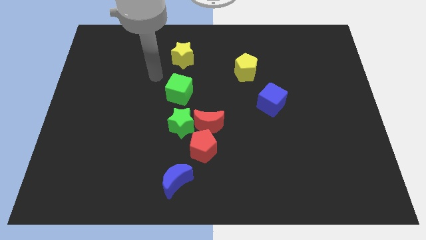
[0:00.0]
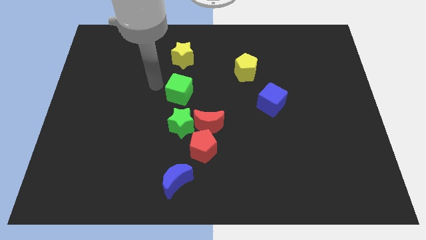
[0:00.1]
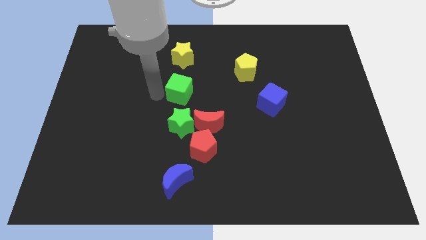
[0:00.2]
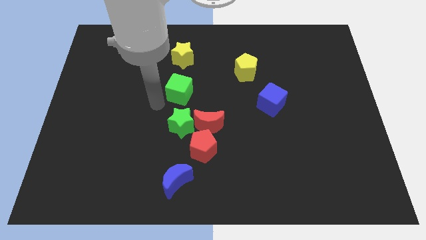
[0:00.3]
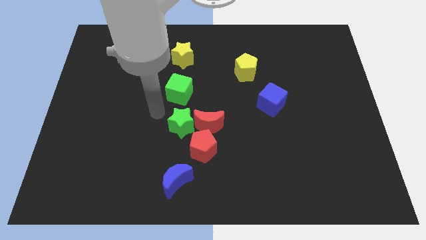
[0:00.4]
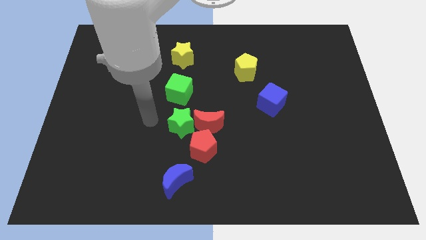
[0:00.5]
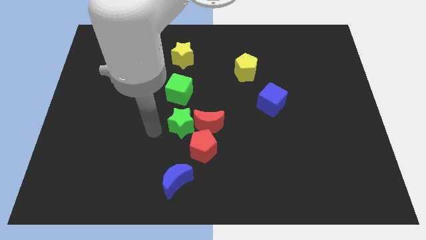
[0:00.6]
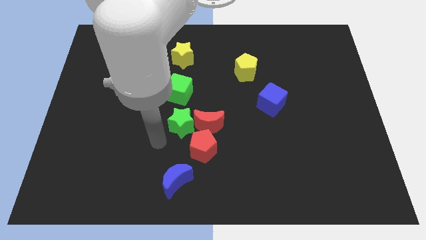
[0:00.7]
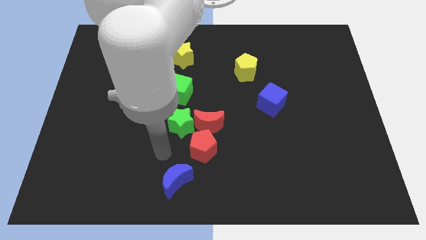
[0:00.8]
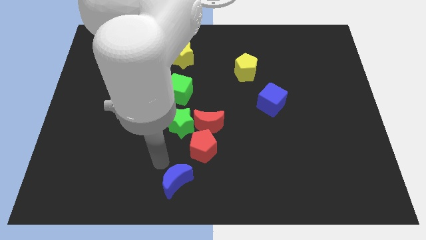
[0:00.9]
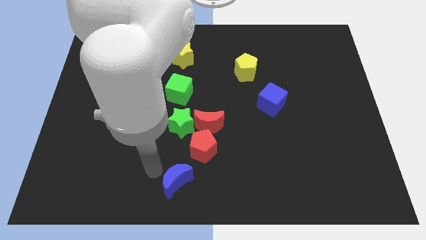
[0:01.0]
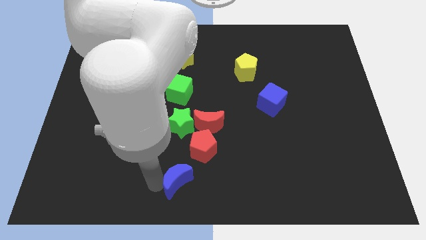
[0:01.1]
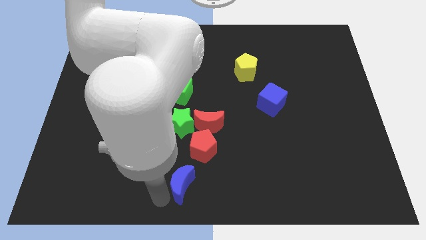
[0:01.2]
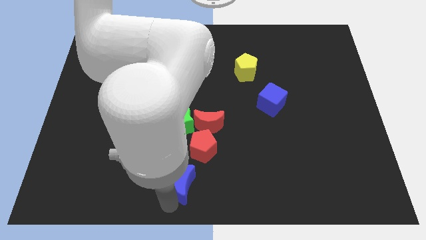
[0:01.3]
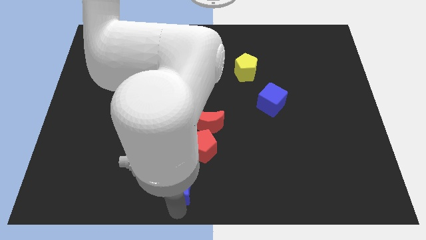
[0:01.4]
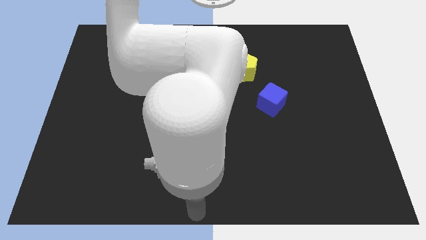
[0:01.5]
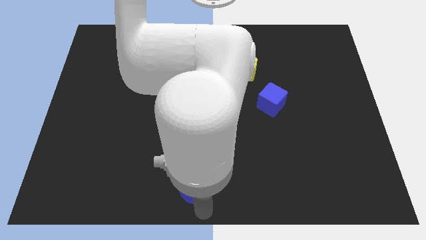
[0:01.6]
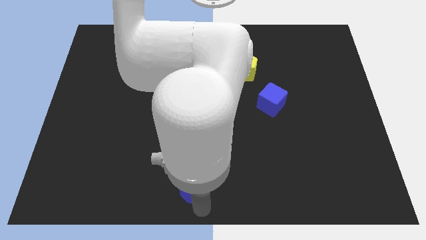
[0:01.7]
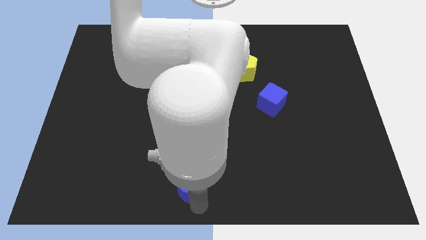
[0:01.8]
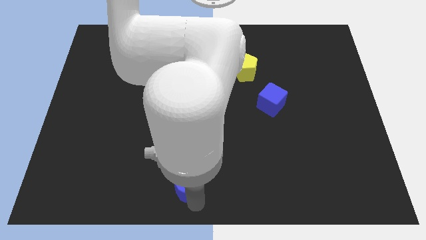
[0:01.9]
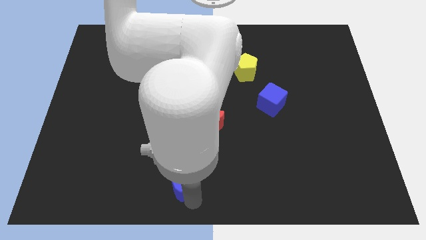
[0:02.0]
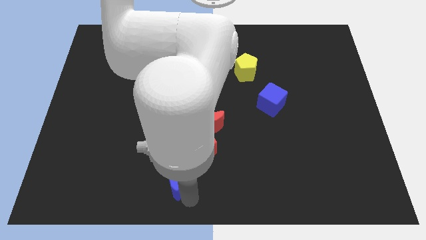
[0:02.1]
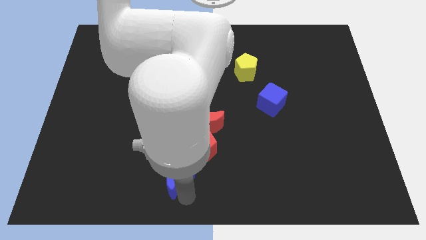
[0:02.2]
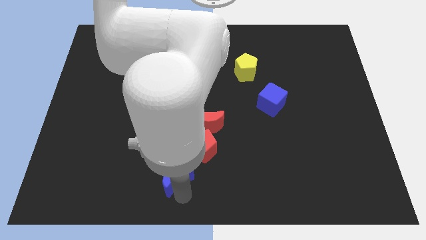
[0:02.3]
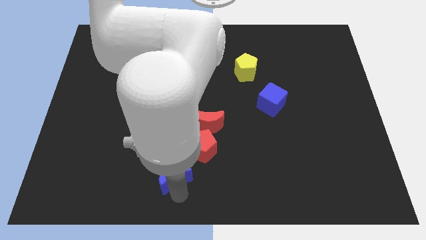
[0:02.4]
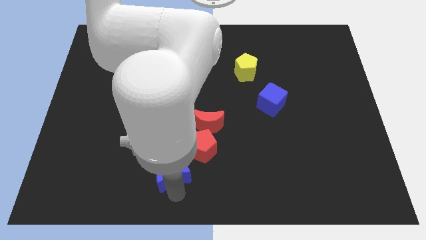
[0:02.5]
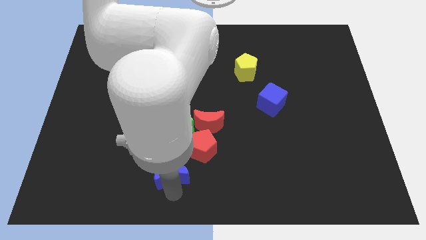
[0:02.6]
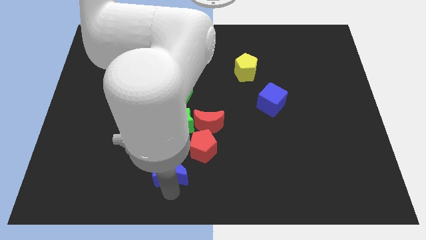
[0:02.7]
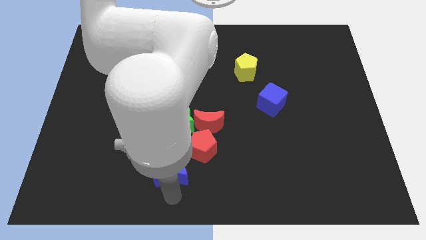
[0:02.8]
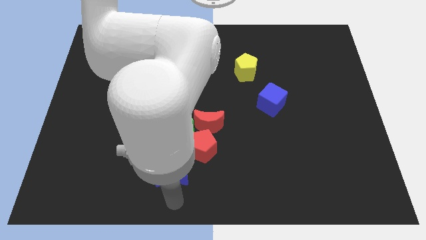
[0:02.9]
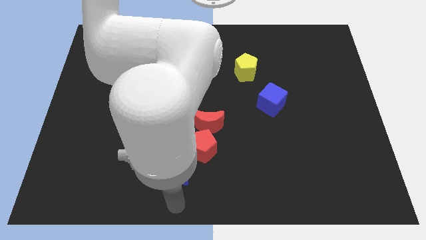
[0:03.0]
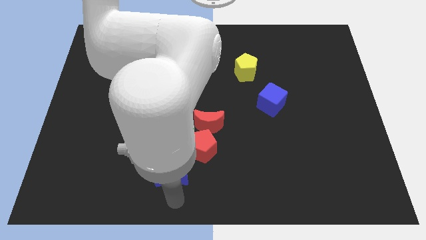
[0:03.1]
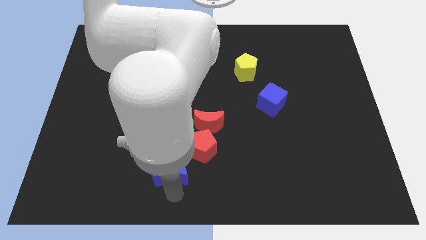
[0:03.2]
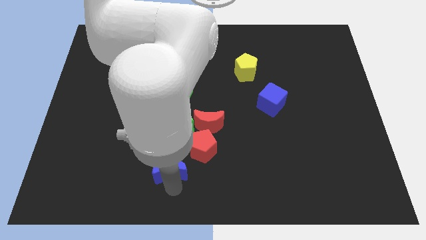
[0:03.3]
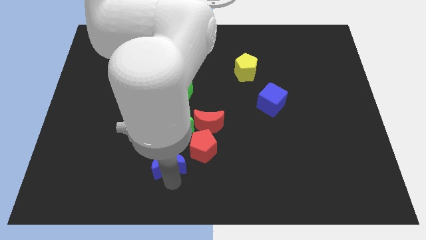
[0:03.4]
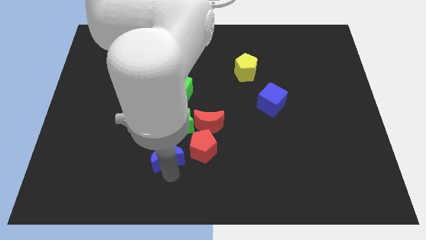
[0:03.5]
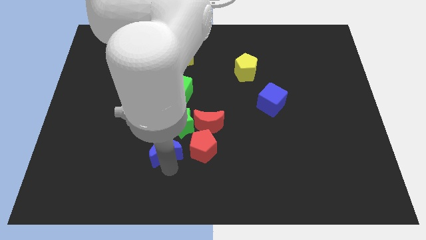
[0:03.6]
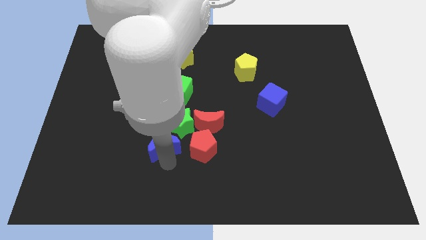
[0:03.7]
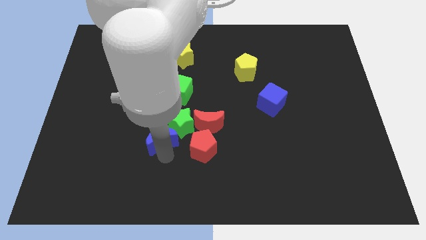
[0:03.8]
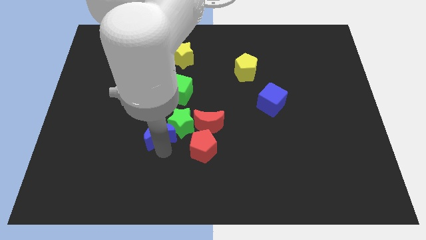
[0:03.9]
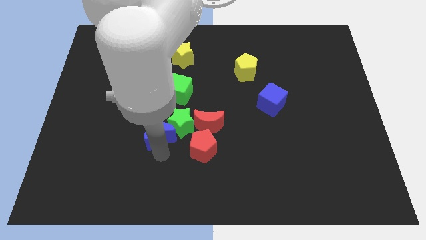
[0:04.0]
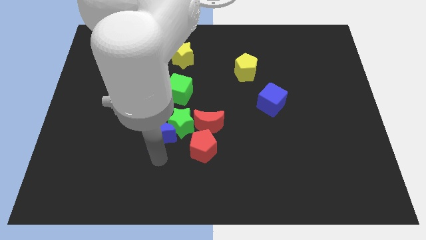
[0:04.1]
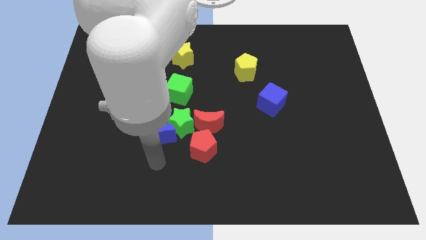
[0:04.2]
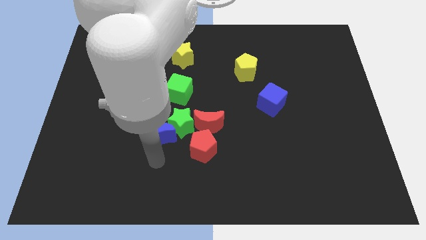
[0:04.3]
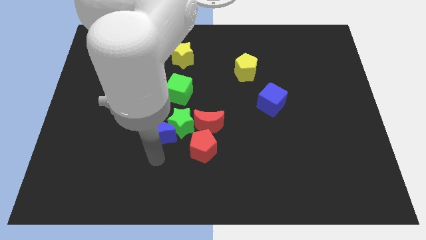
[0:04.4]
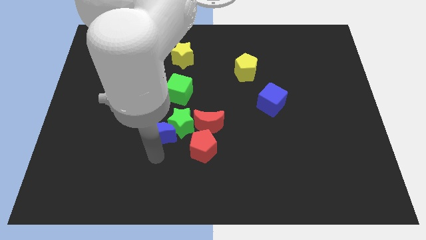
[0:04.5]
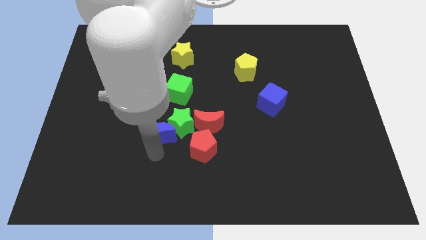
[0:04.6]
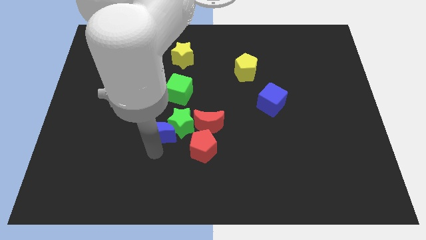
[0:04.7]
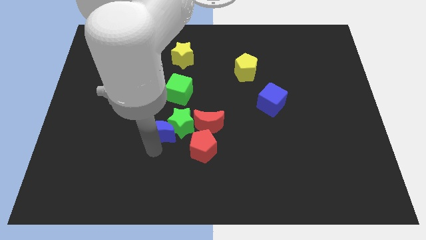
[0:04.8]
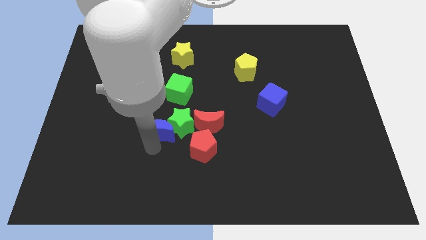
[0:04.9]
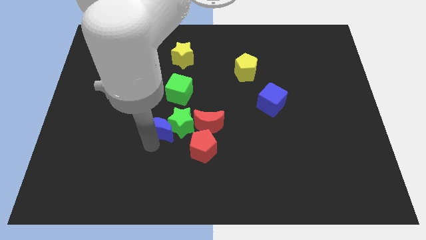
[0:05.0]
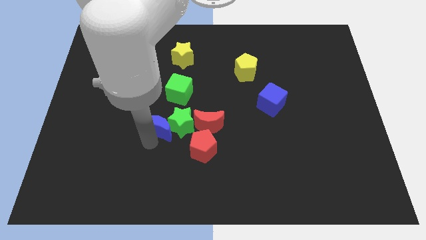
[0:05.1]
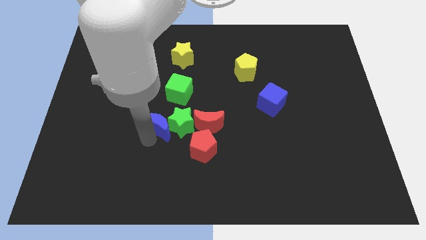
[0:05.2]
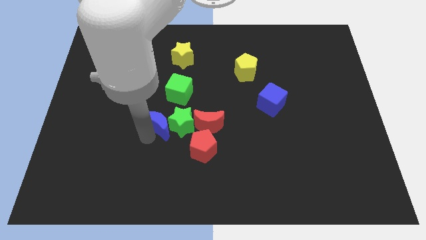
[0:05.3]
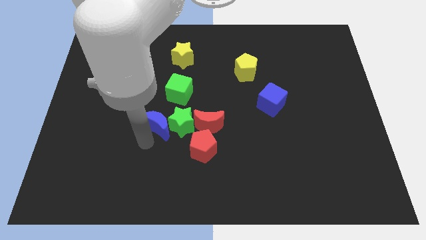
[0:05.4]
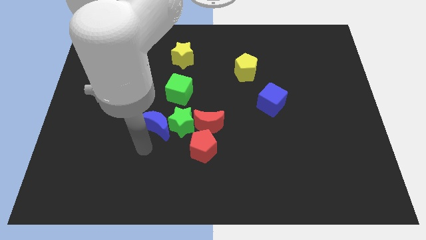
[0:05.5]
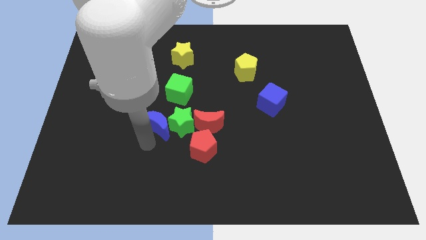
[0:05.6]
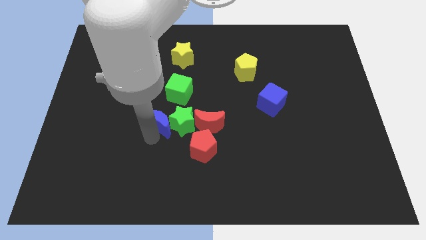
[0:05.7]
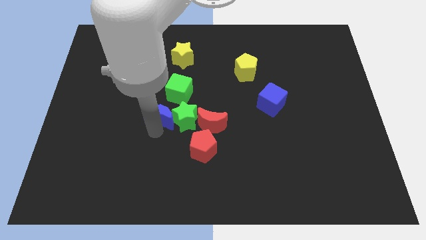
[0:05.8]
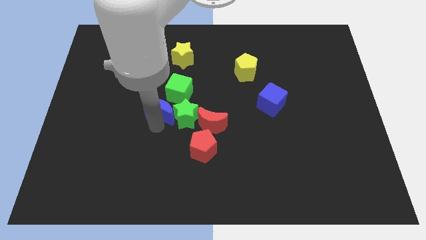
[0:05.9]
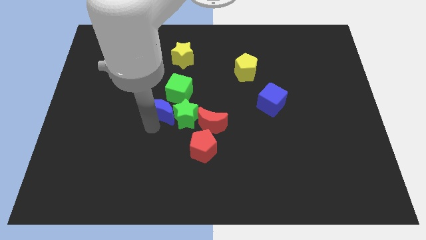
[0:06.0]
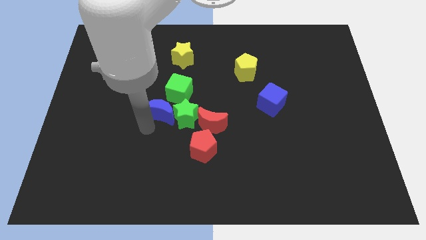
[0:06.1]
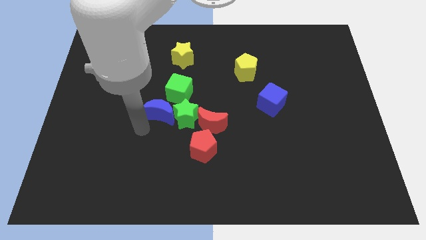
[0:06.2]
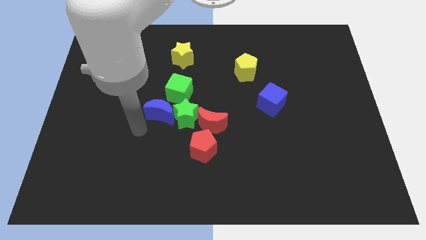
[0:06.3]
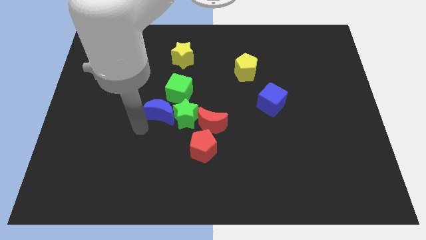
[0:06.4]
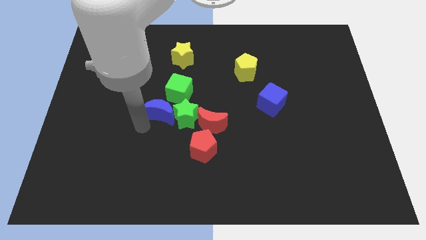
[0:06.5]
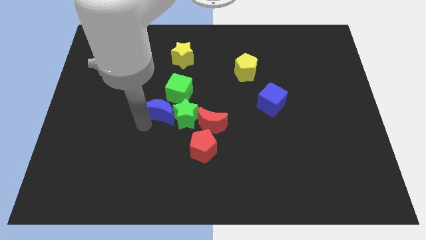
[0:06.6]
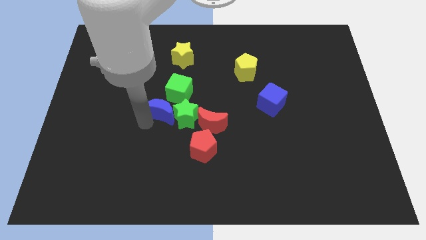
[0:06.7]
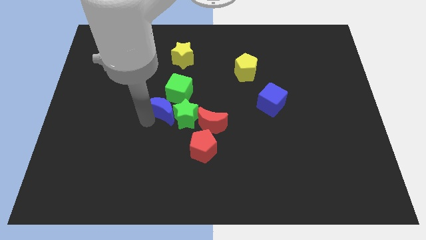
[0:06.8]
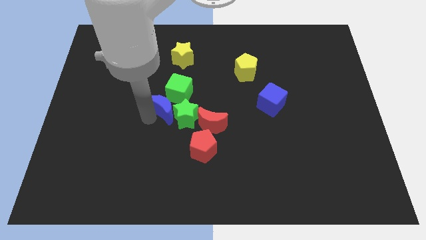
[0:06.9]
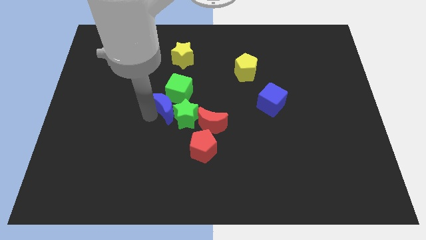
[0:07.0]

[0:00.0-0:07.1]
slide the blue moon towards the green cube
